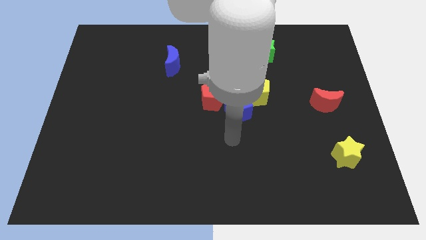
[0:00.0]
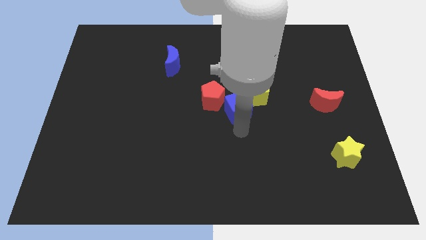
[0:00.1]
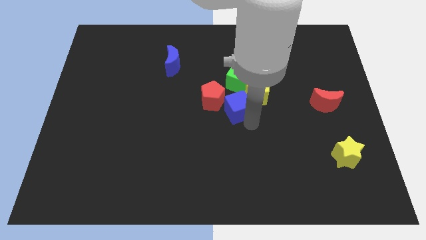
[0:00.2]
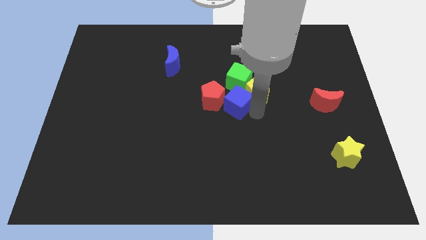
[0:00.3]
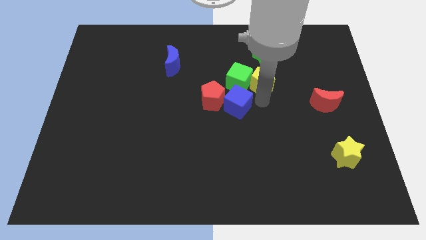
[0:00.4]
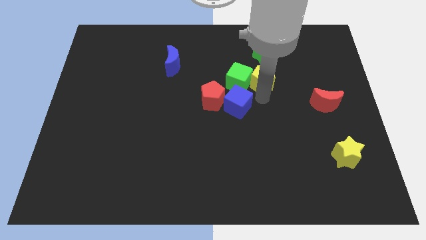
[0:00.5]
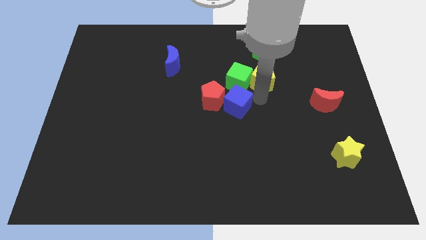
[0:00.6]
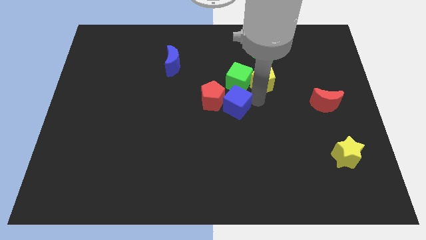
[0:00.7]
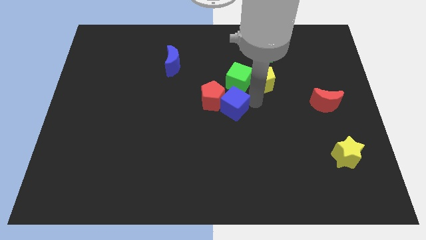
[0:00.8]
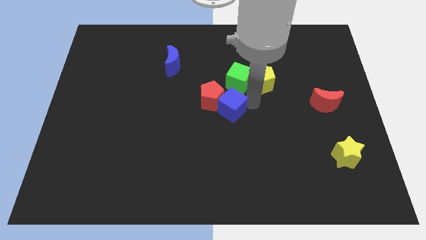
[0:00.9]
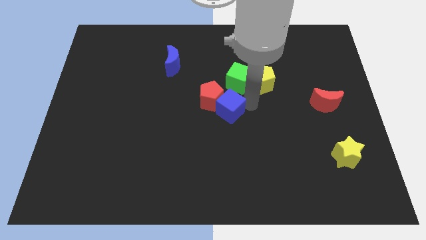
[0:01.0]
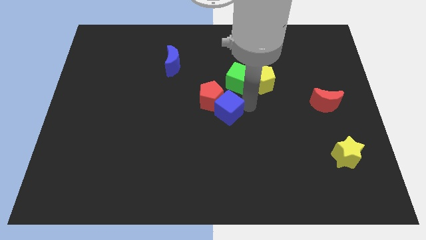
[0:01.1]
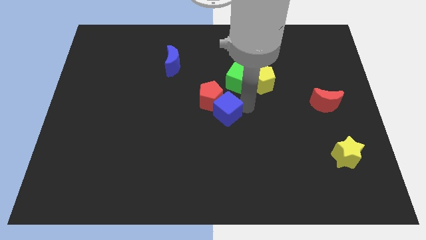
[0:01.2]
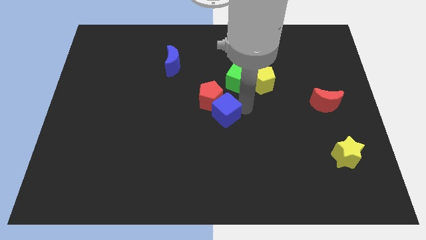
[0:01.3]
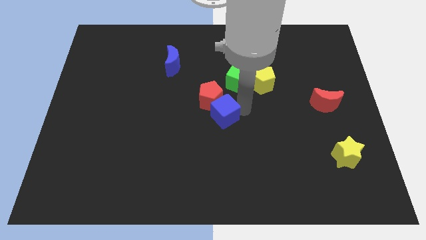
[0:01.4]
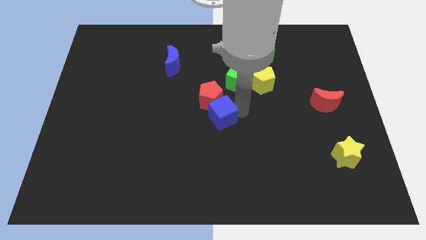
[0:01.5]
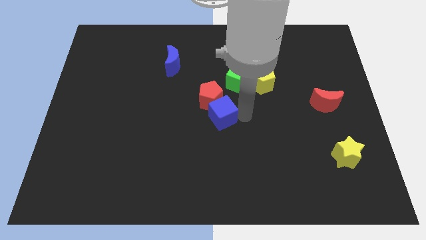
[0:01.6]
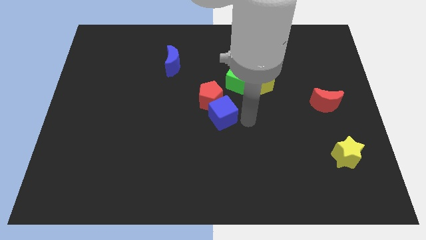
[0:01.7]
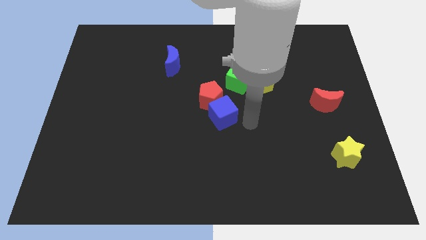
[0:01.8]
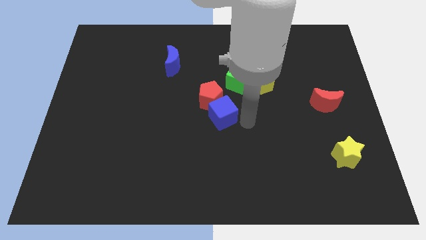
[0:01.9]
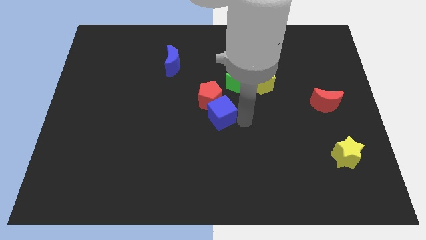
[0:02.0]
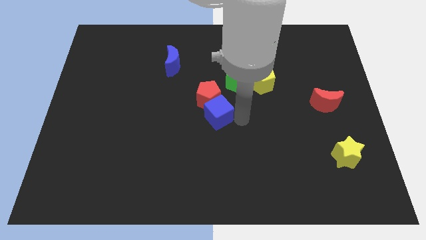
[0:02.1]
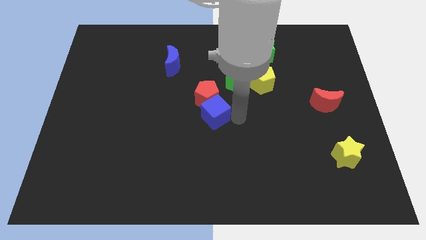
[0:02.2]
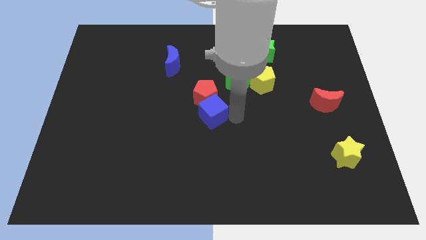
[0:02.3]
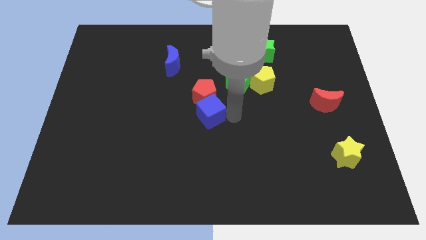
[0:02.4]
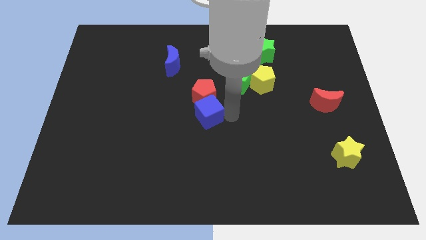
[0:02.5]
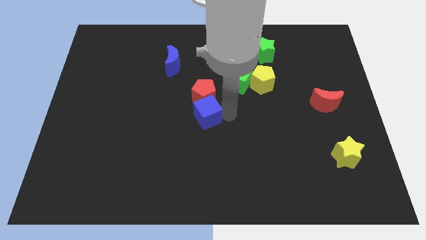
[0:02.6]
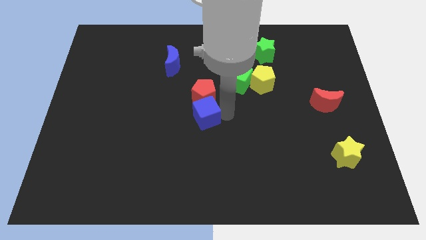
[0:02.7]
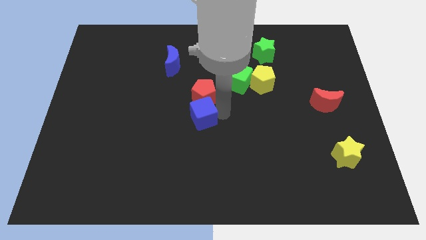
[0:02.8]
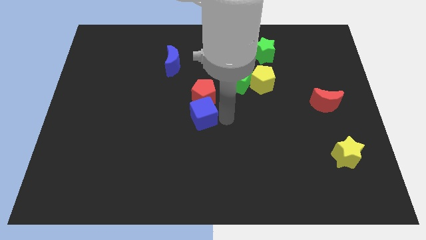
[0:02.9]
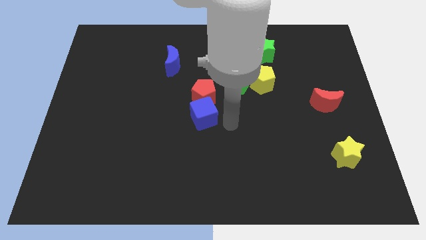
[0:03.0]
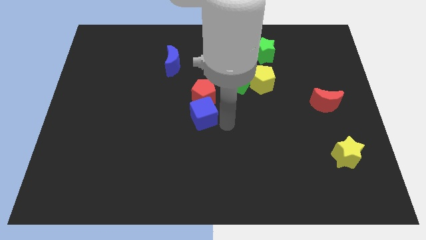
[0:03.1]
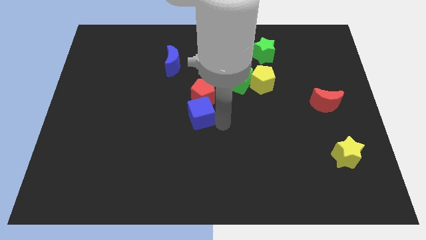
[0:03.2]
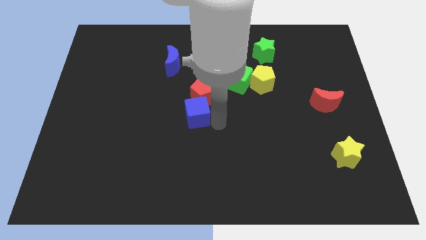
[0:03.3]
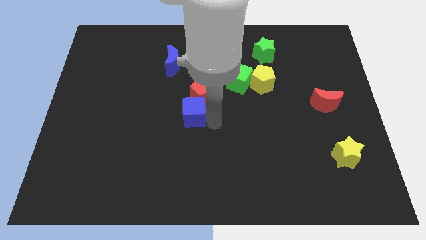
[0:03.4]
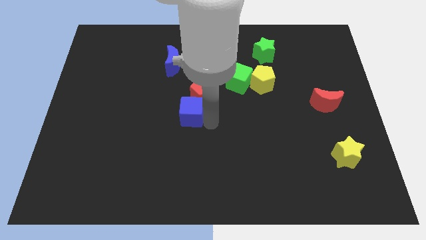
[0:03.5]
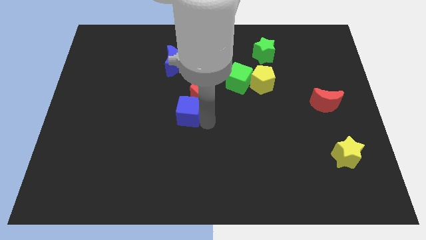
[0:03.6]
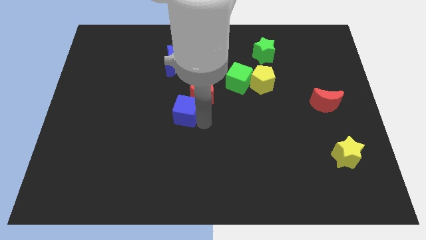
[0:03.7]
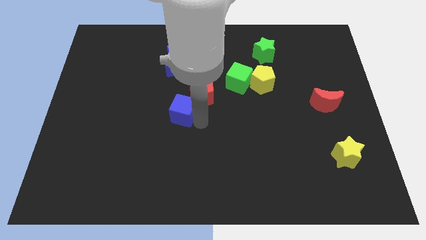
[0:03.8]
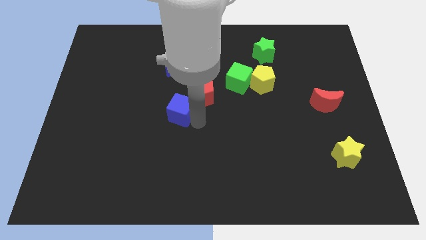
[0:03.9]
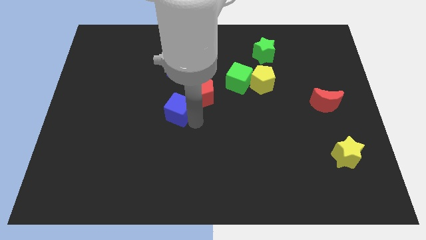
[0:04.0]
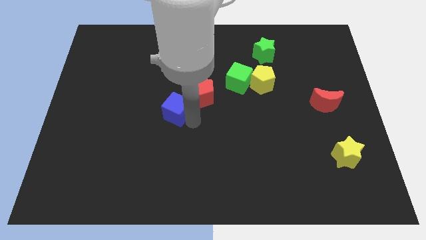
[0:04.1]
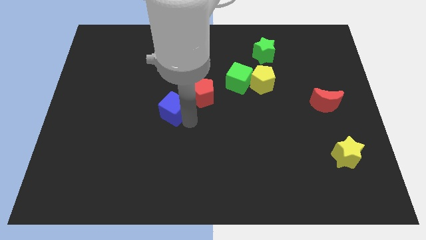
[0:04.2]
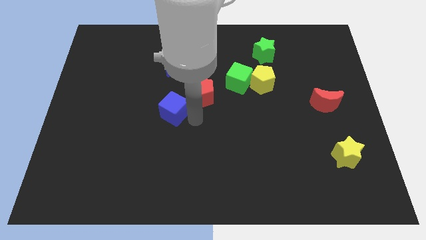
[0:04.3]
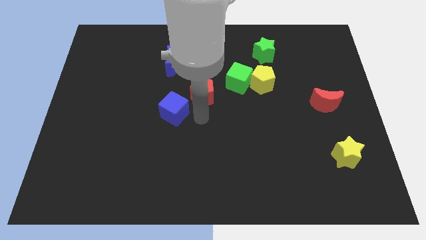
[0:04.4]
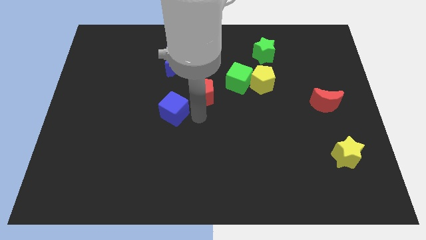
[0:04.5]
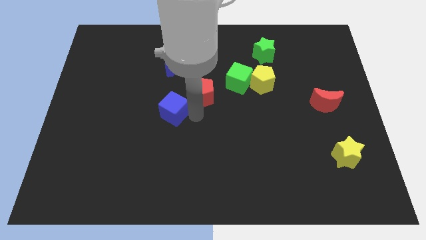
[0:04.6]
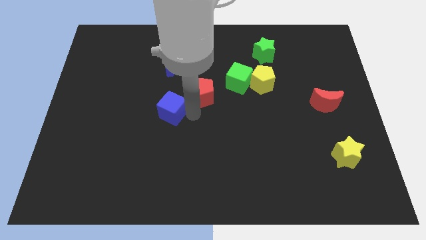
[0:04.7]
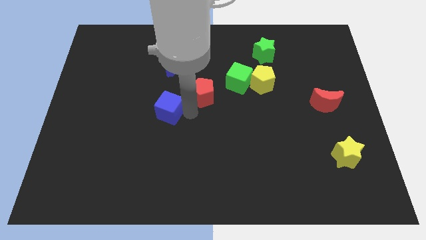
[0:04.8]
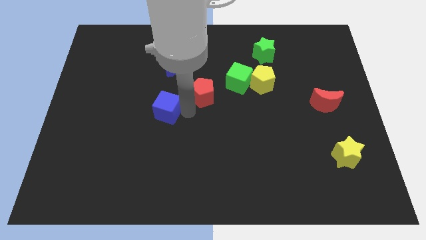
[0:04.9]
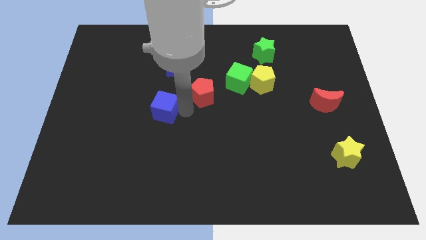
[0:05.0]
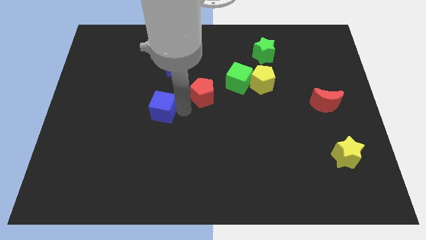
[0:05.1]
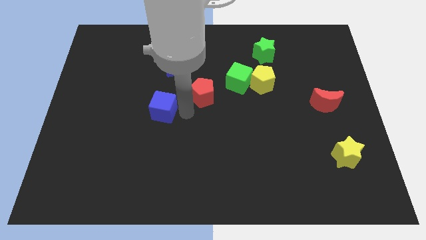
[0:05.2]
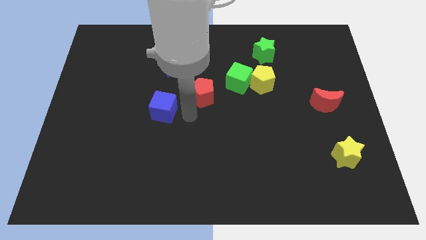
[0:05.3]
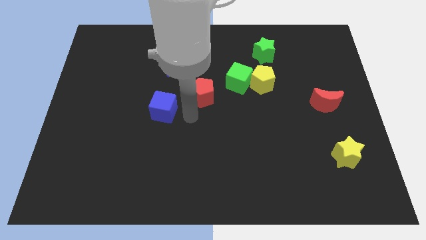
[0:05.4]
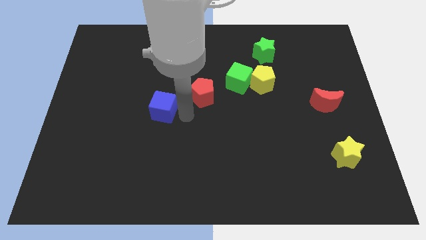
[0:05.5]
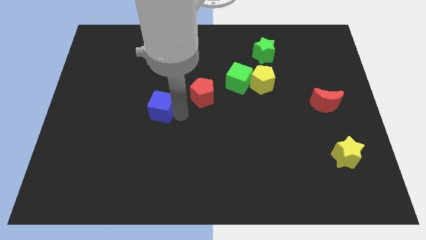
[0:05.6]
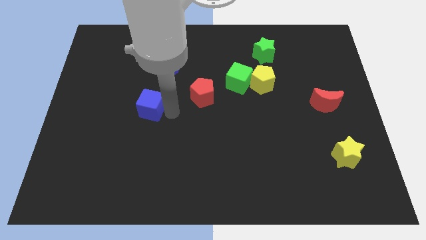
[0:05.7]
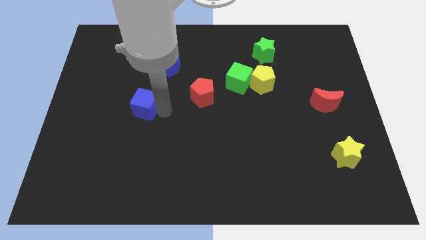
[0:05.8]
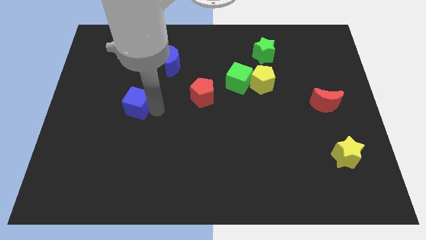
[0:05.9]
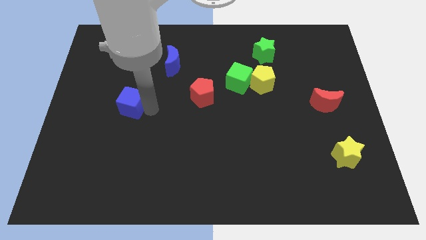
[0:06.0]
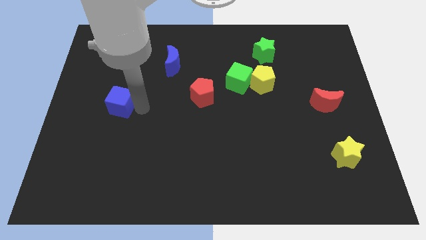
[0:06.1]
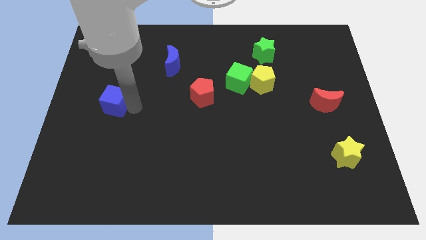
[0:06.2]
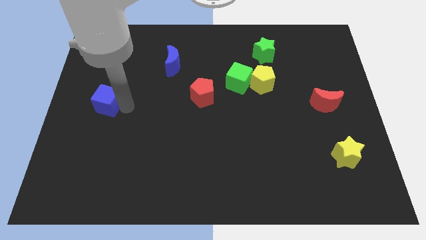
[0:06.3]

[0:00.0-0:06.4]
move the blue cube to the center left

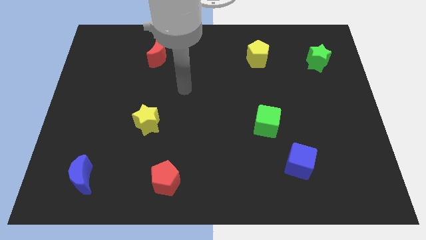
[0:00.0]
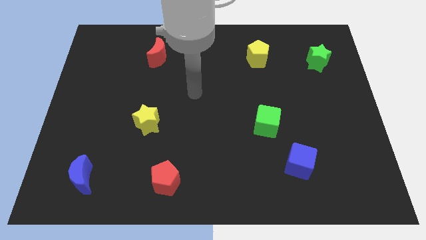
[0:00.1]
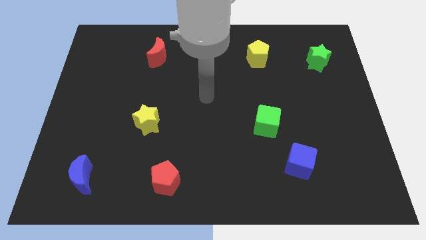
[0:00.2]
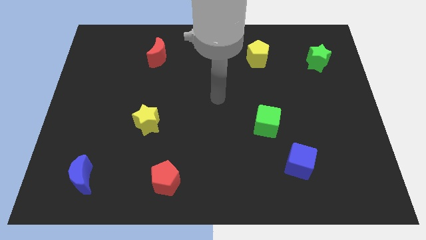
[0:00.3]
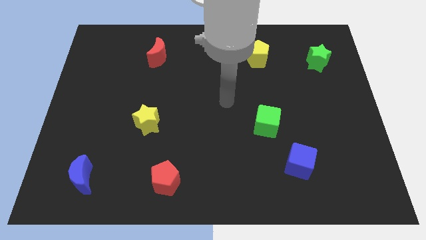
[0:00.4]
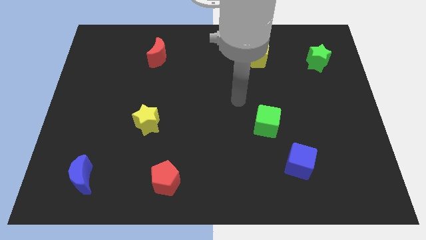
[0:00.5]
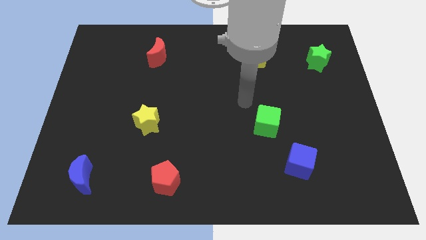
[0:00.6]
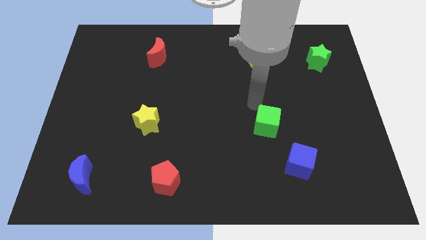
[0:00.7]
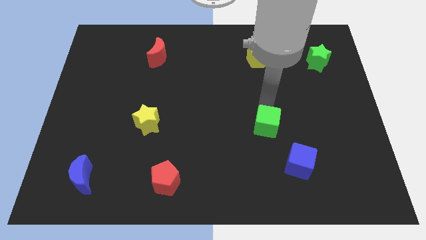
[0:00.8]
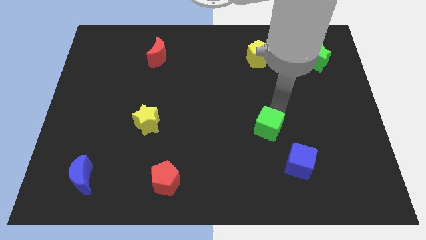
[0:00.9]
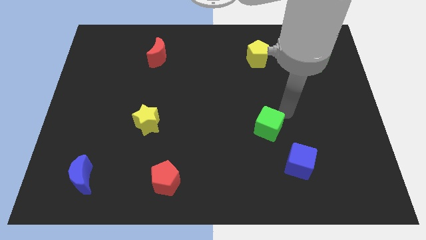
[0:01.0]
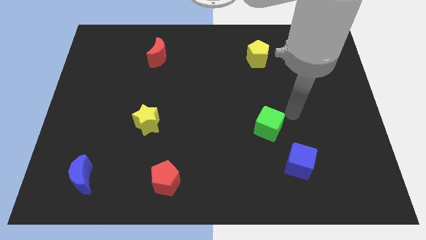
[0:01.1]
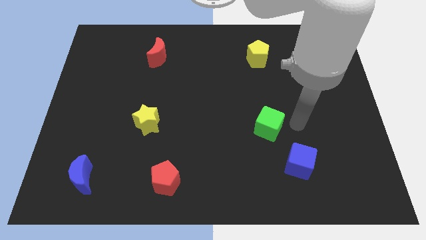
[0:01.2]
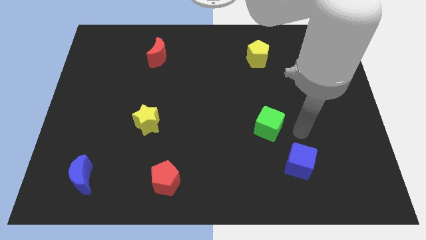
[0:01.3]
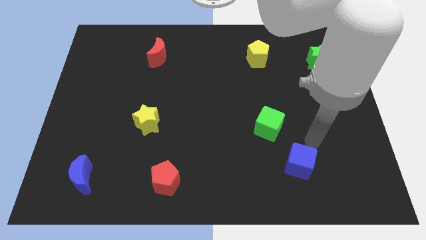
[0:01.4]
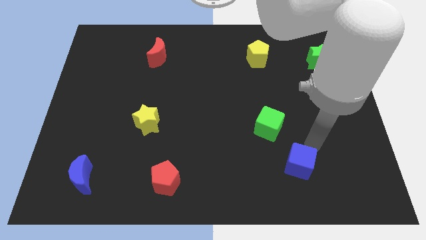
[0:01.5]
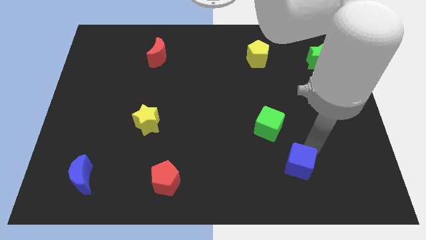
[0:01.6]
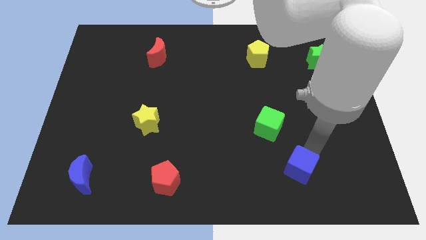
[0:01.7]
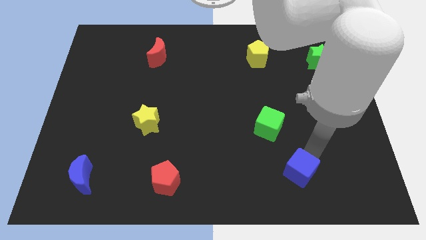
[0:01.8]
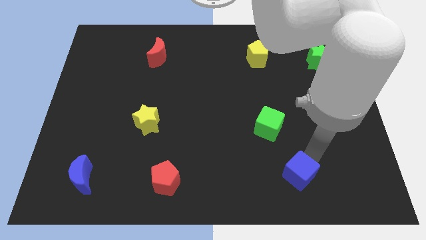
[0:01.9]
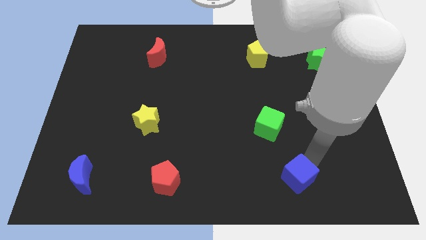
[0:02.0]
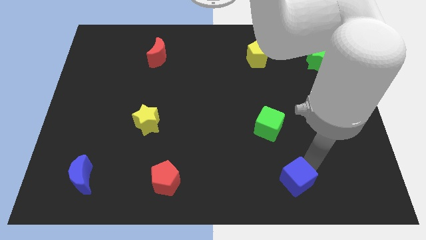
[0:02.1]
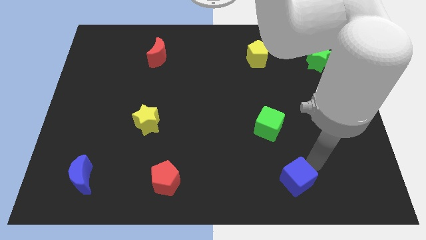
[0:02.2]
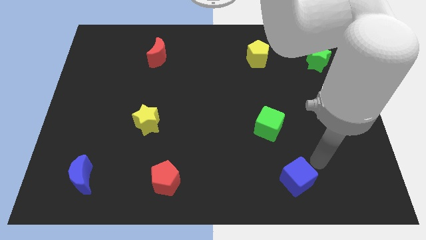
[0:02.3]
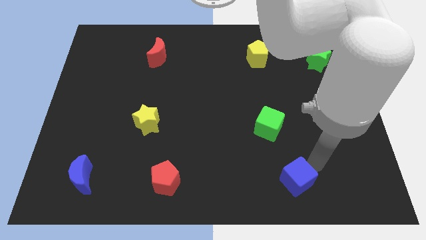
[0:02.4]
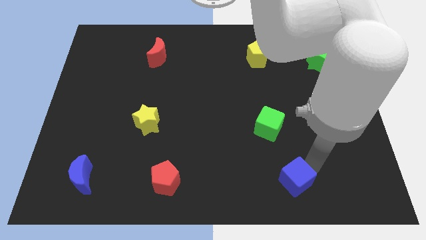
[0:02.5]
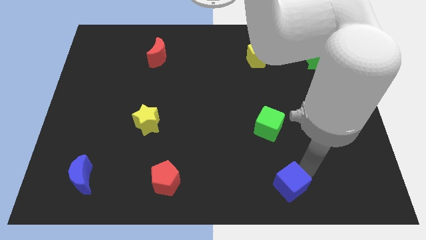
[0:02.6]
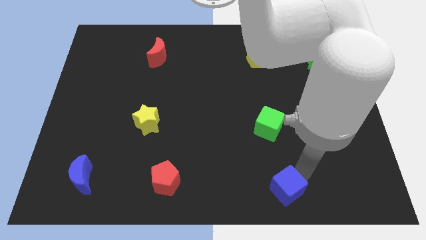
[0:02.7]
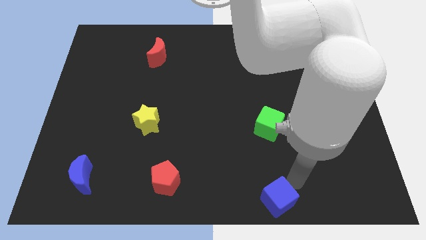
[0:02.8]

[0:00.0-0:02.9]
slide the blue cube to the bottom
